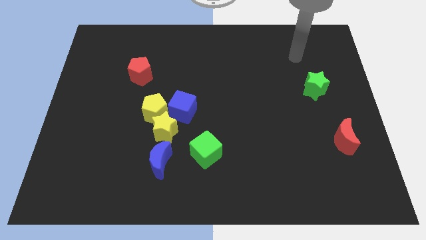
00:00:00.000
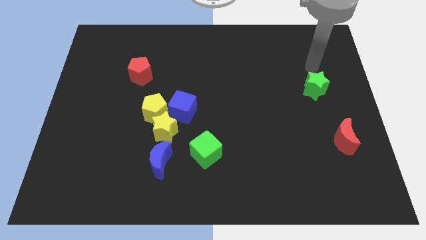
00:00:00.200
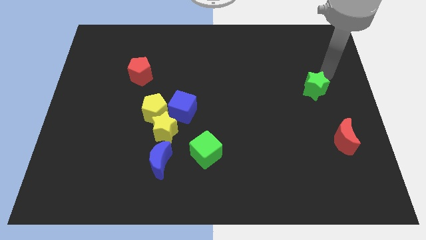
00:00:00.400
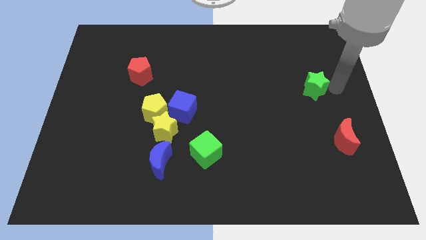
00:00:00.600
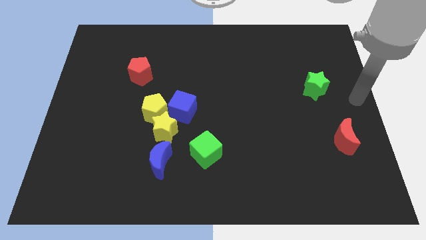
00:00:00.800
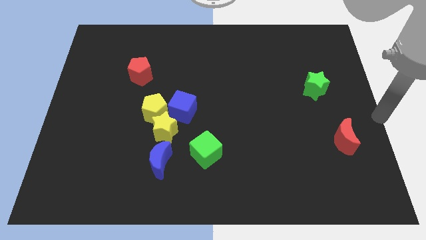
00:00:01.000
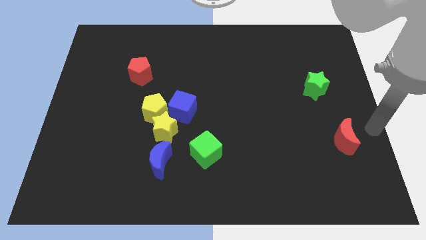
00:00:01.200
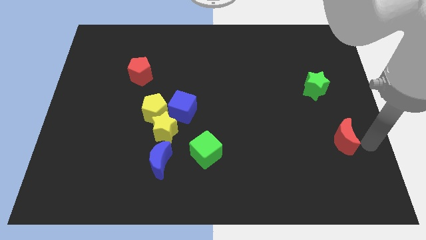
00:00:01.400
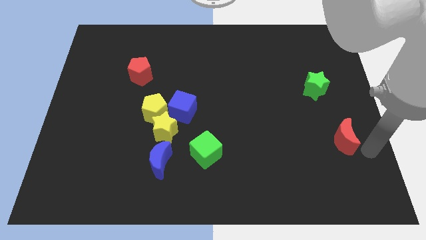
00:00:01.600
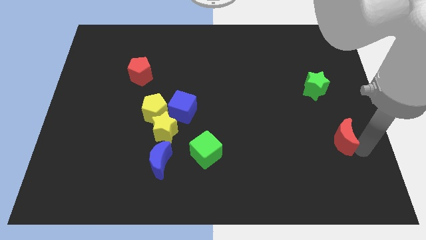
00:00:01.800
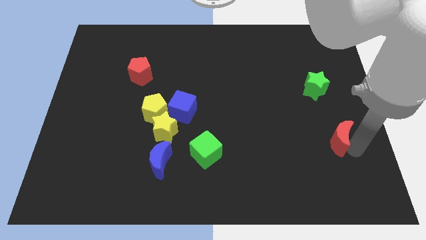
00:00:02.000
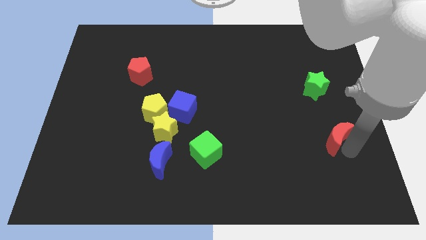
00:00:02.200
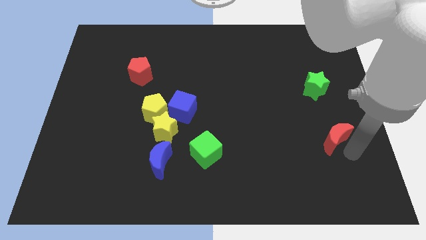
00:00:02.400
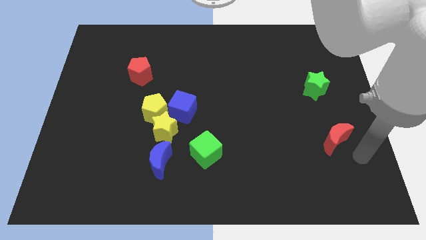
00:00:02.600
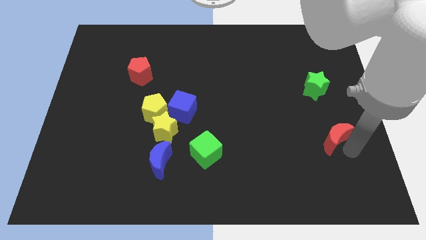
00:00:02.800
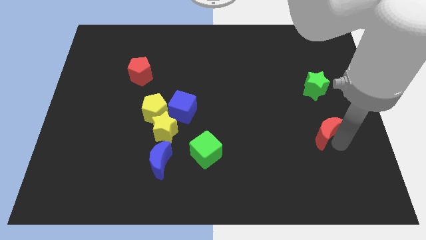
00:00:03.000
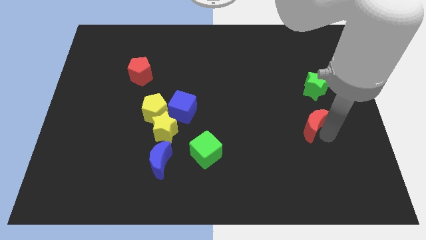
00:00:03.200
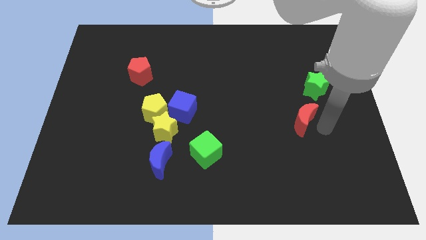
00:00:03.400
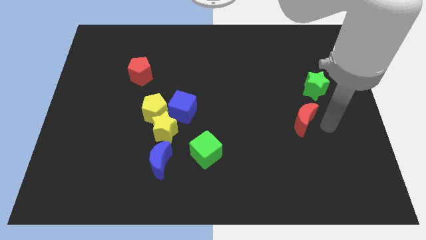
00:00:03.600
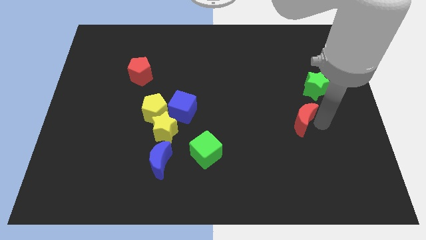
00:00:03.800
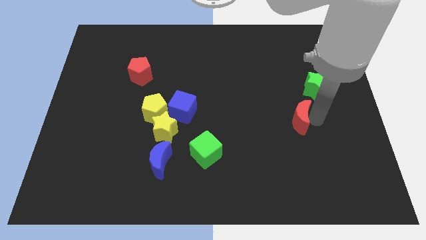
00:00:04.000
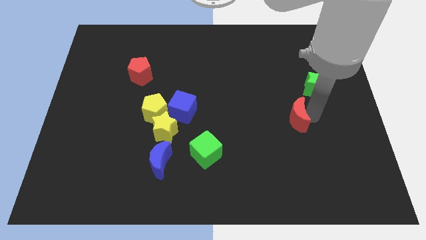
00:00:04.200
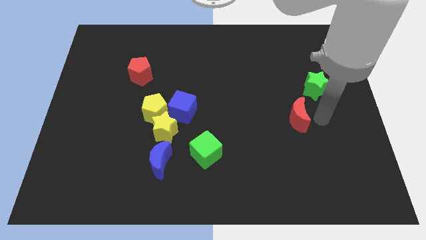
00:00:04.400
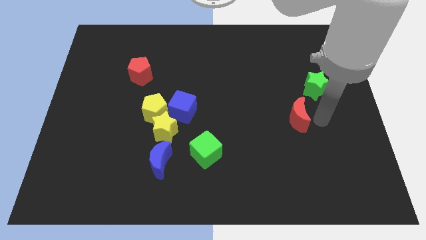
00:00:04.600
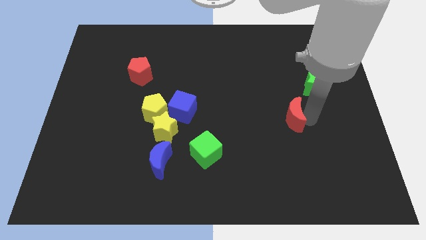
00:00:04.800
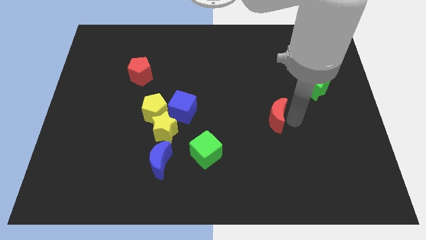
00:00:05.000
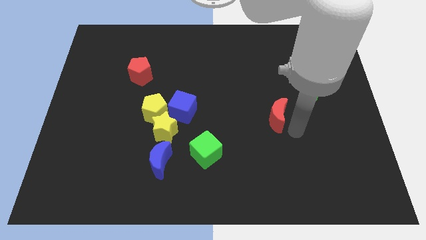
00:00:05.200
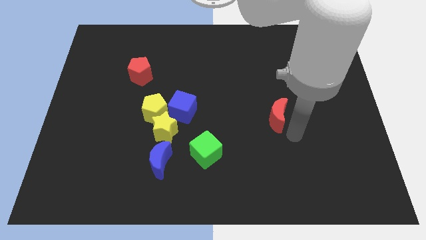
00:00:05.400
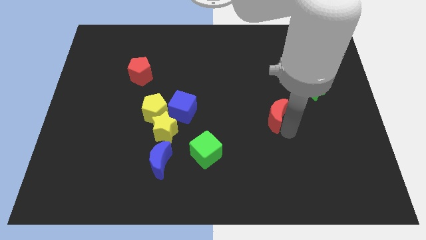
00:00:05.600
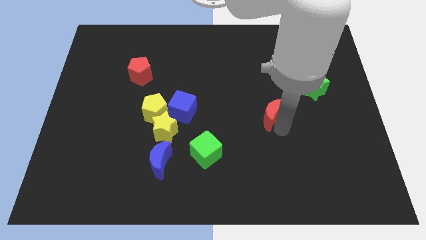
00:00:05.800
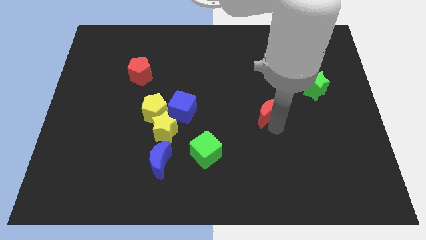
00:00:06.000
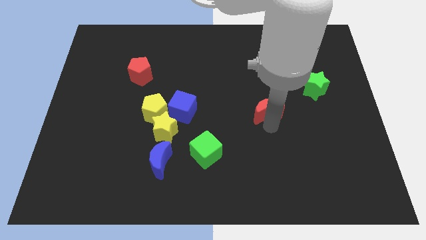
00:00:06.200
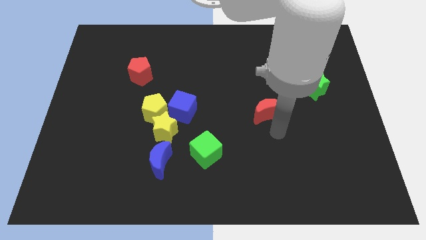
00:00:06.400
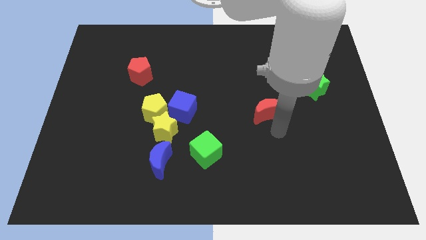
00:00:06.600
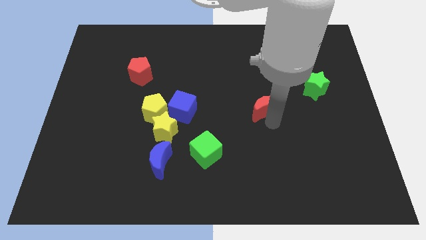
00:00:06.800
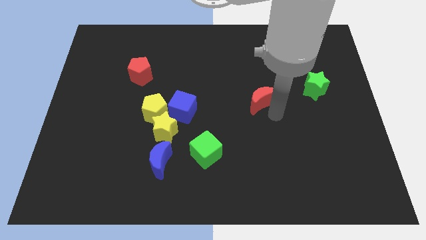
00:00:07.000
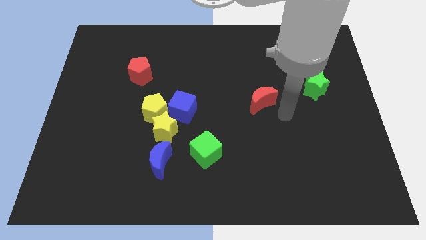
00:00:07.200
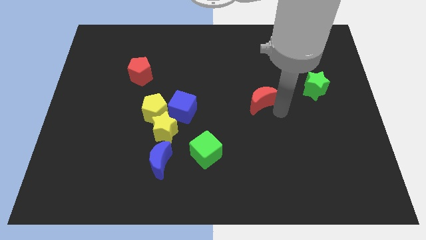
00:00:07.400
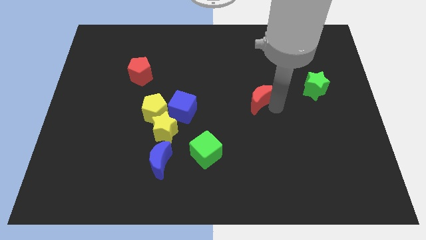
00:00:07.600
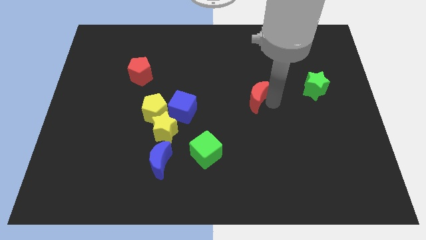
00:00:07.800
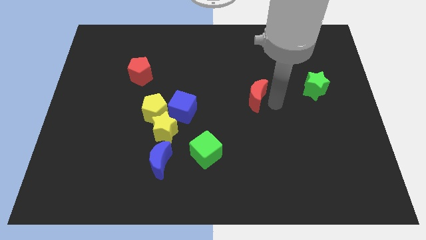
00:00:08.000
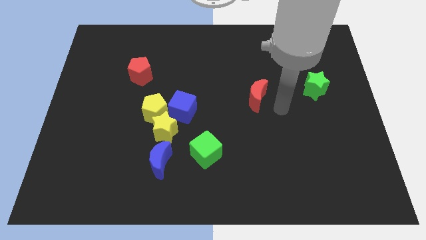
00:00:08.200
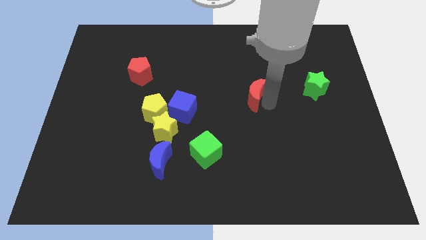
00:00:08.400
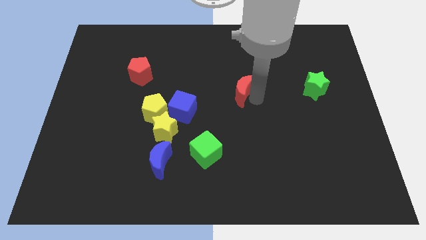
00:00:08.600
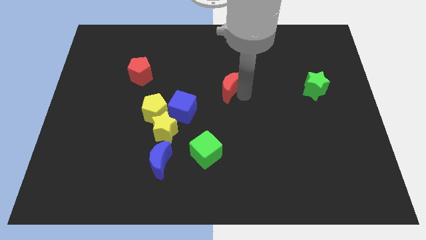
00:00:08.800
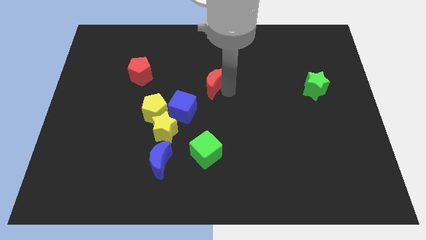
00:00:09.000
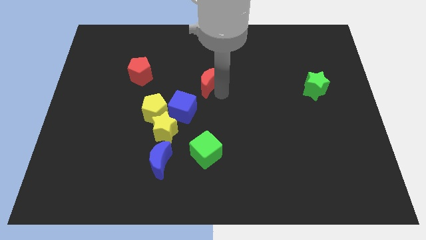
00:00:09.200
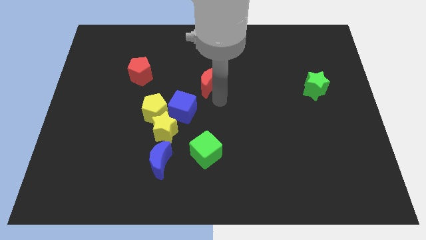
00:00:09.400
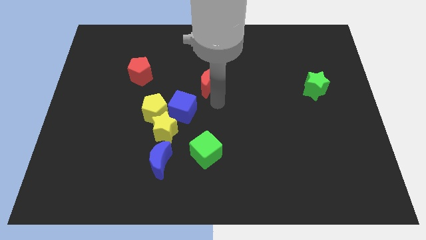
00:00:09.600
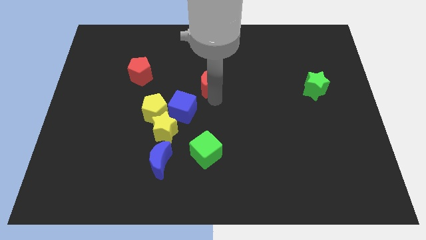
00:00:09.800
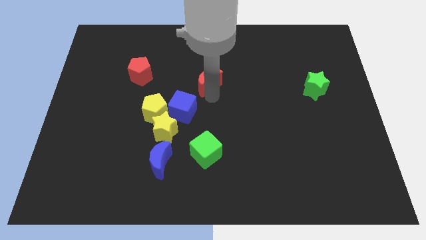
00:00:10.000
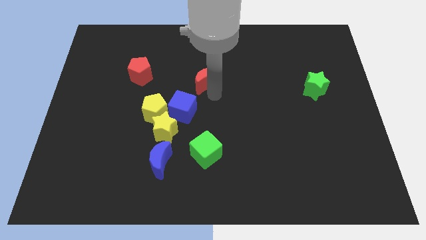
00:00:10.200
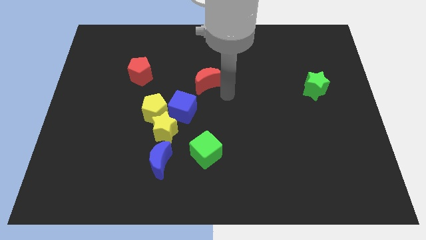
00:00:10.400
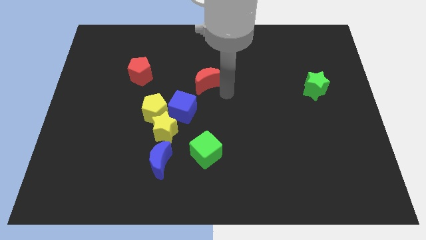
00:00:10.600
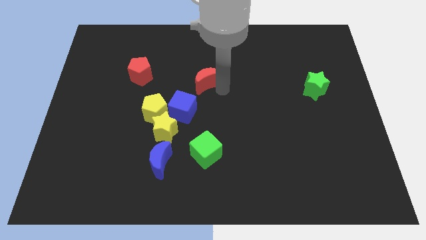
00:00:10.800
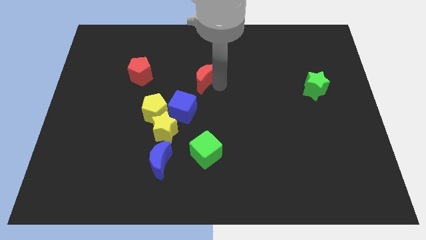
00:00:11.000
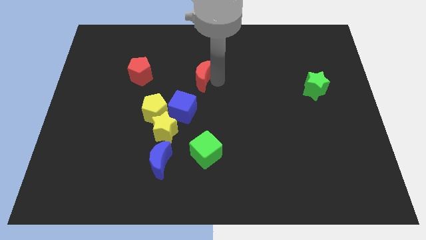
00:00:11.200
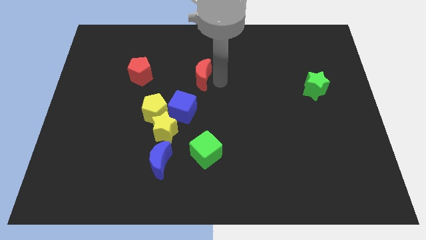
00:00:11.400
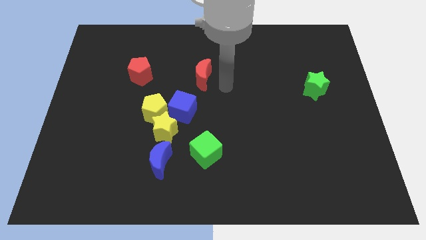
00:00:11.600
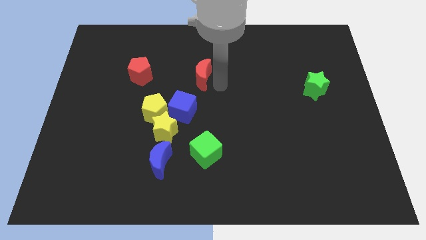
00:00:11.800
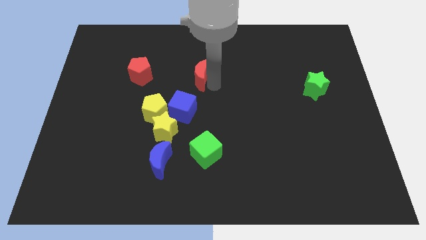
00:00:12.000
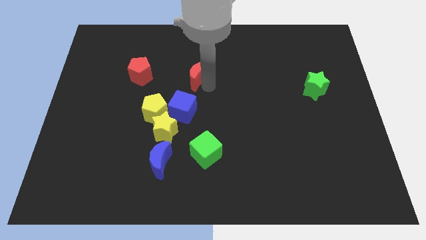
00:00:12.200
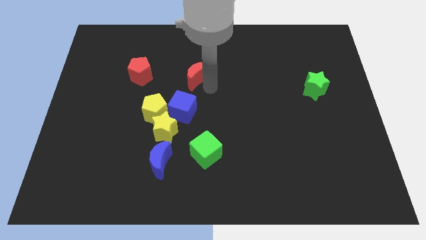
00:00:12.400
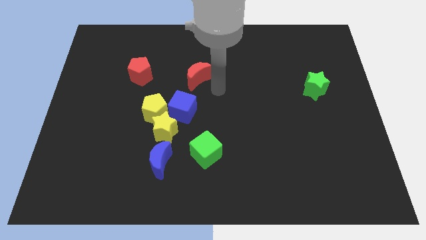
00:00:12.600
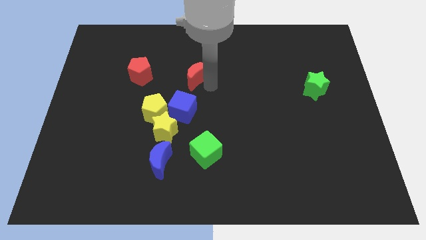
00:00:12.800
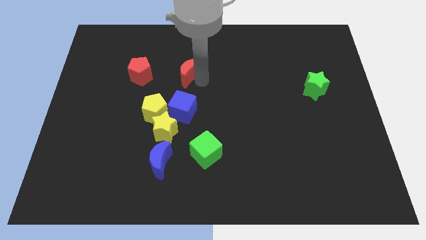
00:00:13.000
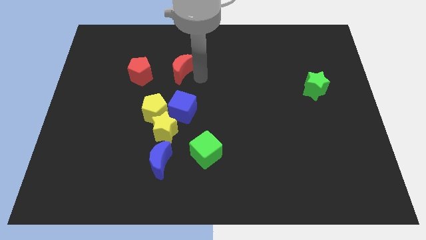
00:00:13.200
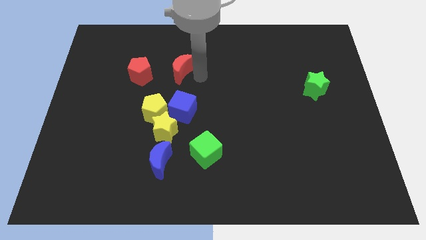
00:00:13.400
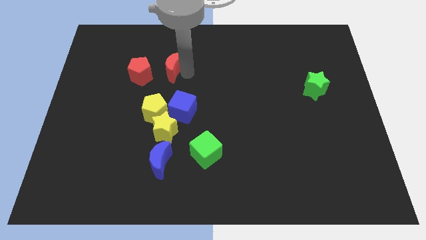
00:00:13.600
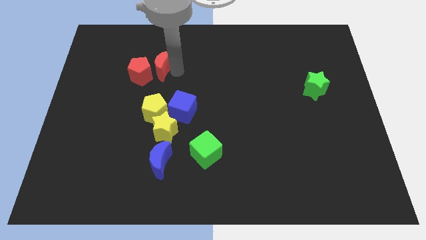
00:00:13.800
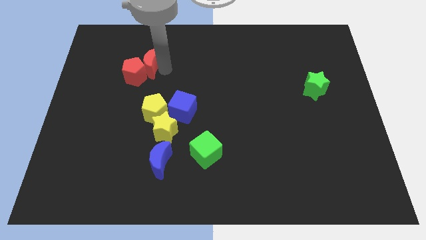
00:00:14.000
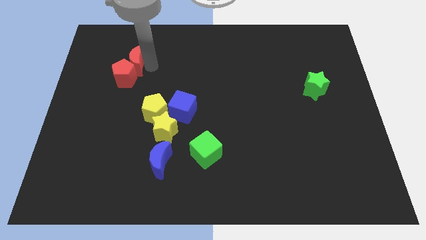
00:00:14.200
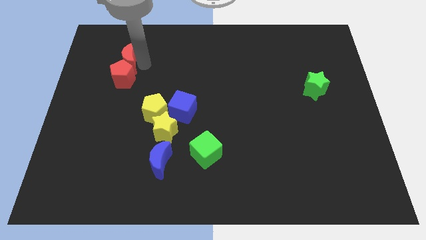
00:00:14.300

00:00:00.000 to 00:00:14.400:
put the red moon diagonally up and to the left of the red pentagon
